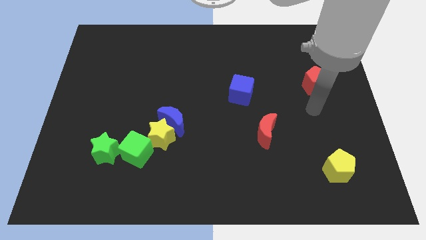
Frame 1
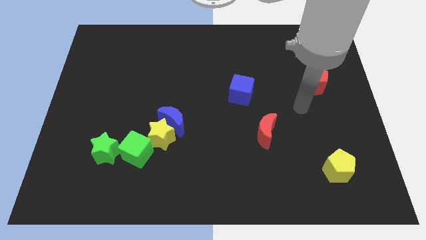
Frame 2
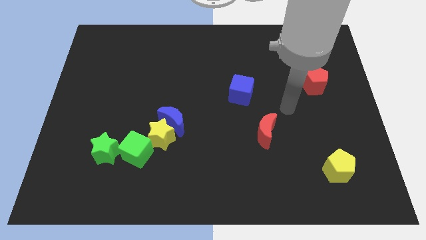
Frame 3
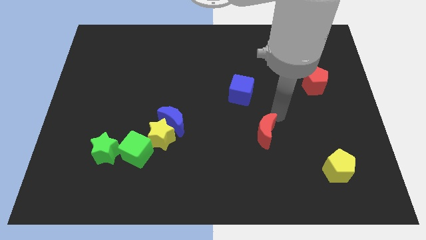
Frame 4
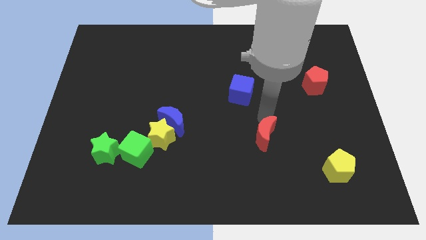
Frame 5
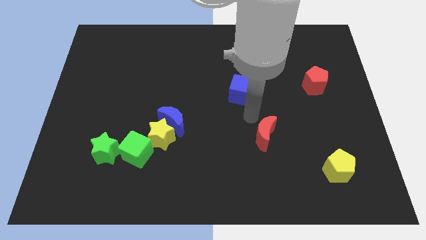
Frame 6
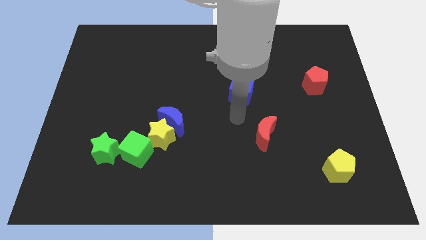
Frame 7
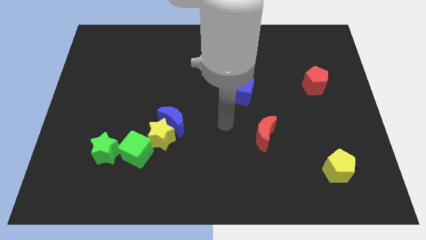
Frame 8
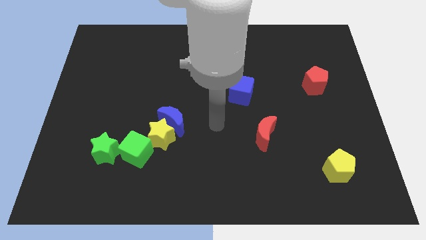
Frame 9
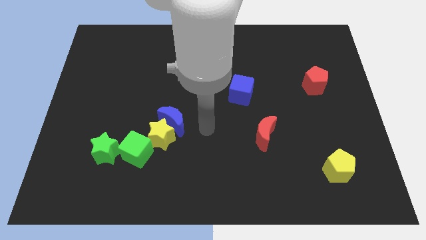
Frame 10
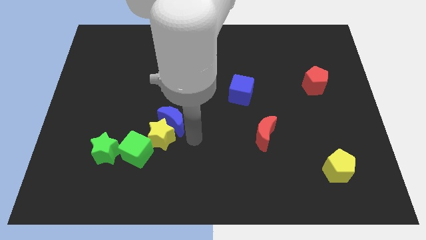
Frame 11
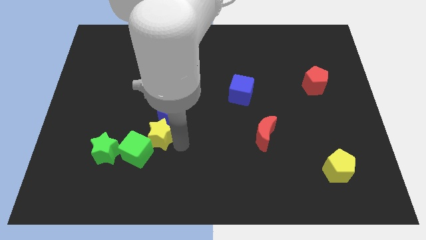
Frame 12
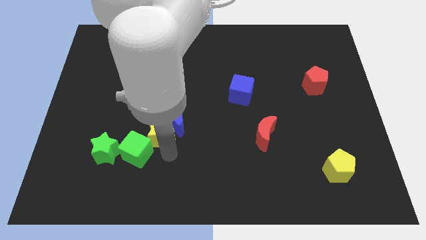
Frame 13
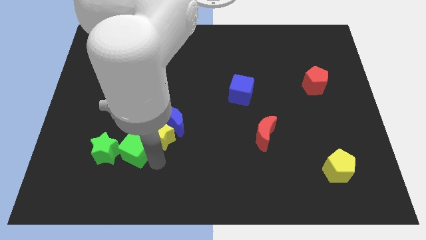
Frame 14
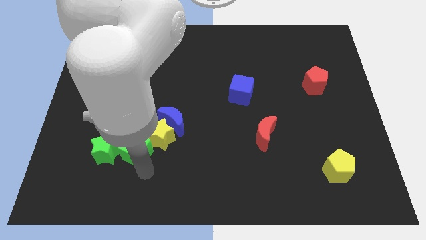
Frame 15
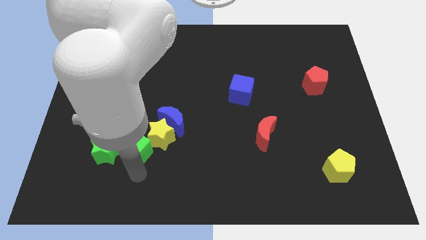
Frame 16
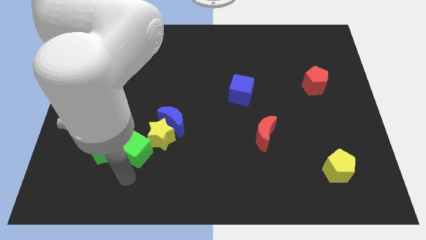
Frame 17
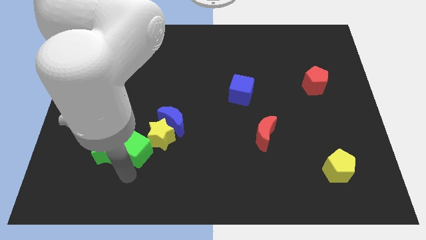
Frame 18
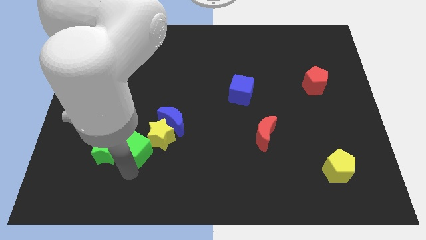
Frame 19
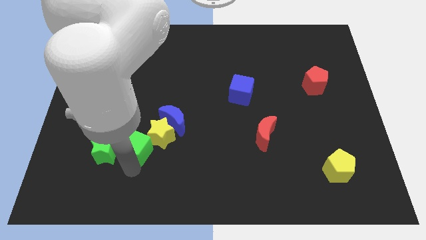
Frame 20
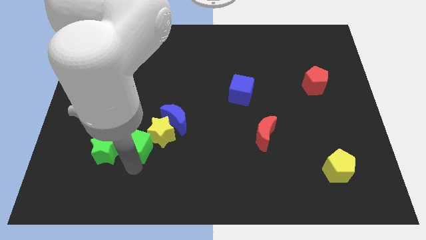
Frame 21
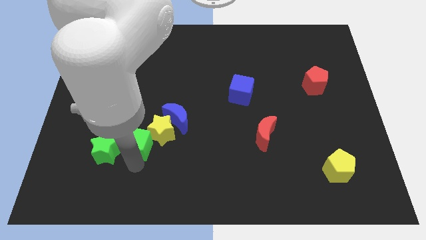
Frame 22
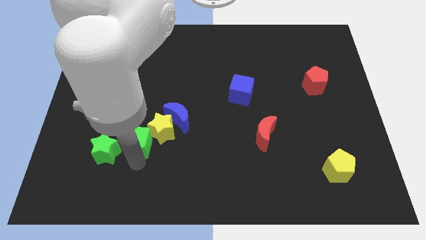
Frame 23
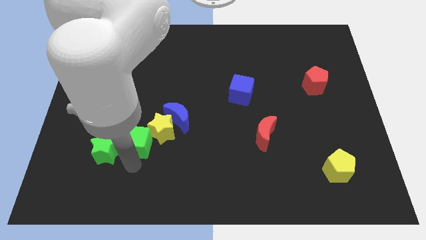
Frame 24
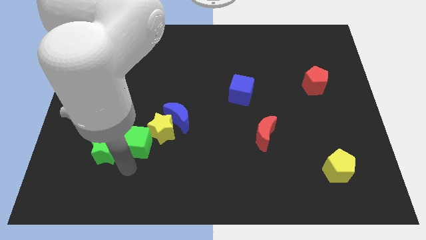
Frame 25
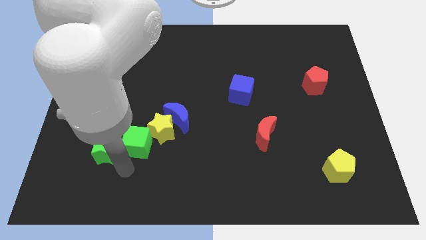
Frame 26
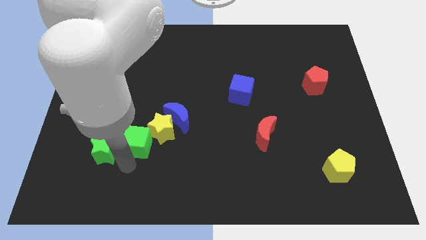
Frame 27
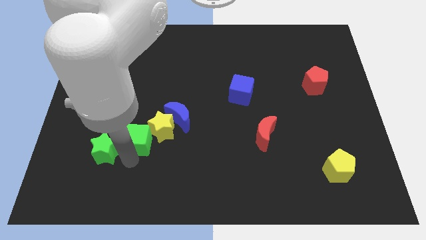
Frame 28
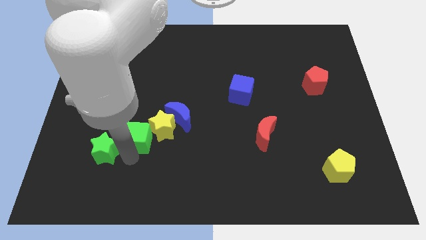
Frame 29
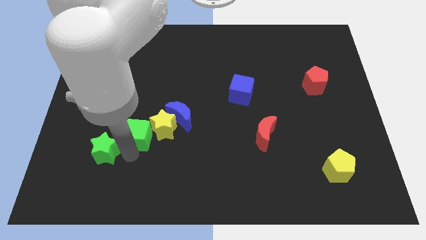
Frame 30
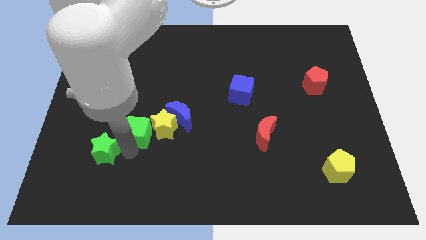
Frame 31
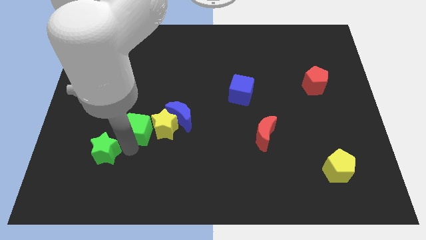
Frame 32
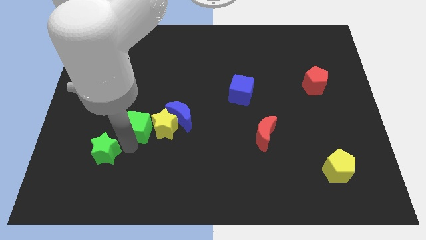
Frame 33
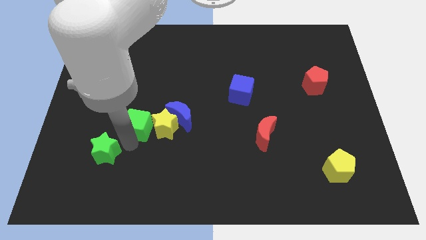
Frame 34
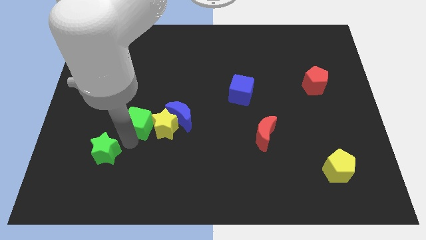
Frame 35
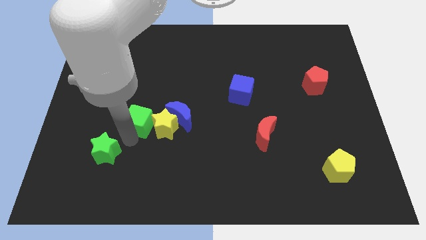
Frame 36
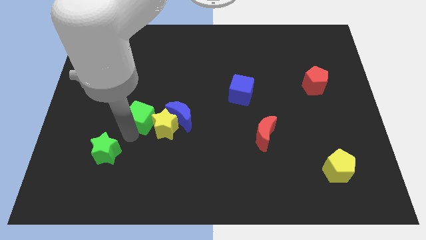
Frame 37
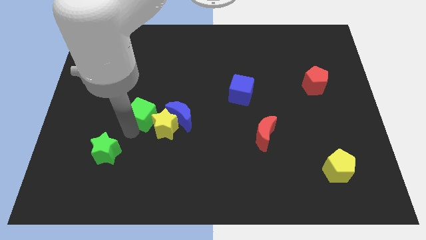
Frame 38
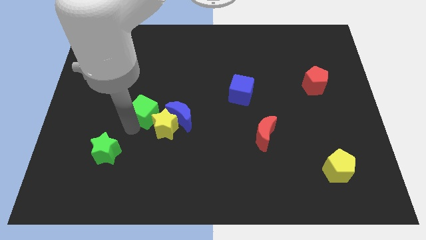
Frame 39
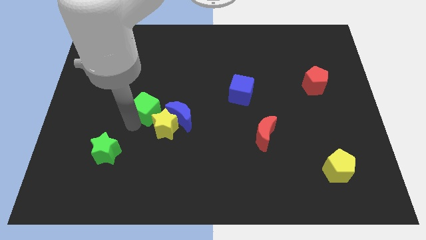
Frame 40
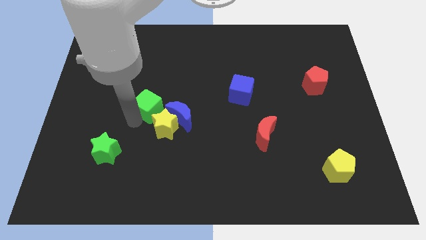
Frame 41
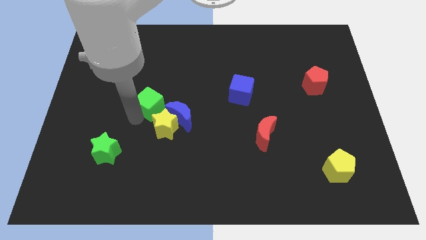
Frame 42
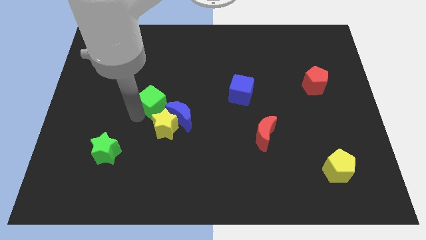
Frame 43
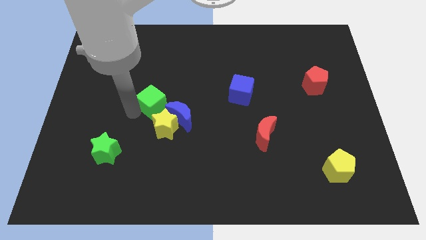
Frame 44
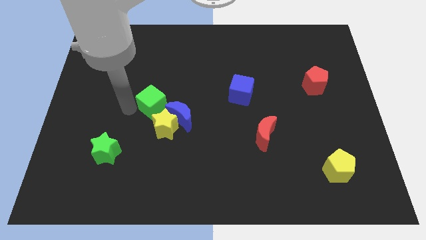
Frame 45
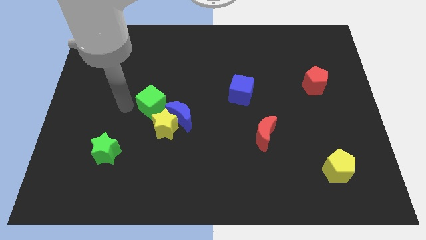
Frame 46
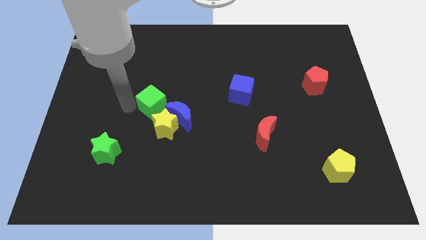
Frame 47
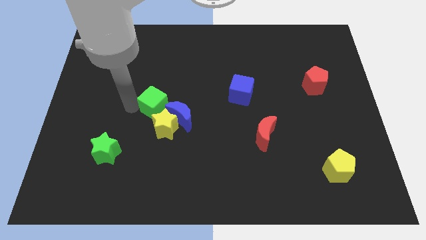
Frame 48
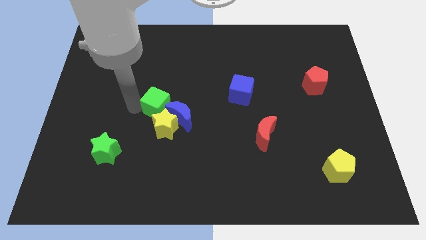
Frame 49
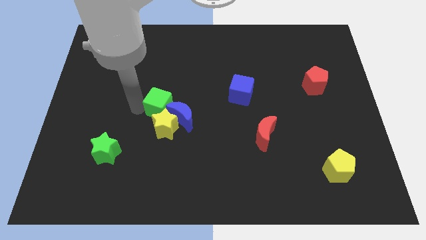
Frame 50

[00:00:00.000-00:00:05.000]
put the green cube to the center

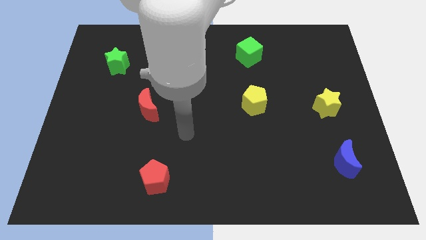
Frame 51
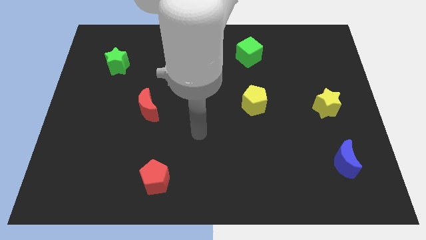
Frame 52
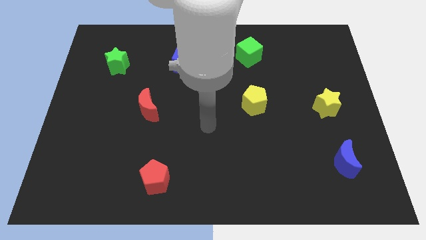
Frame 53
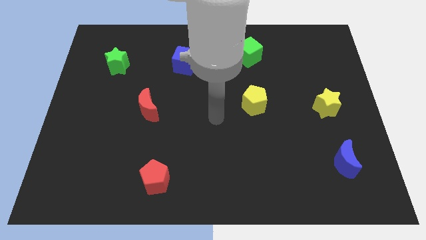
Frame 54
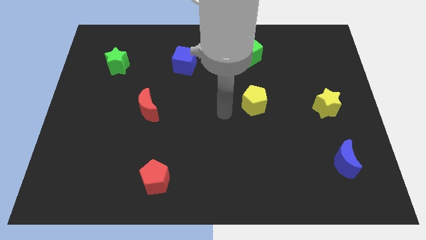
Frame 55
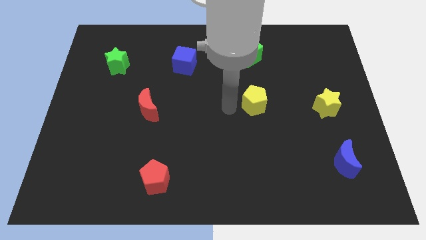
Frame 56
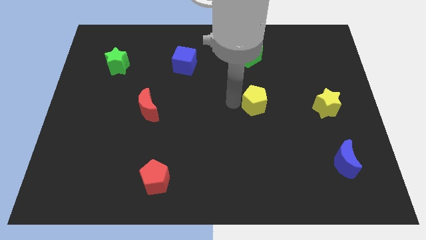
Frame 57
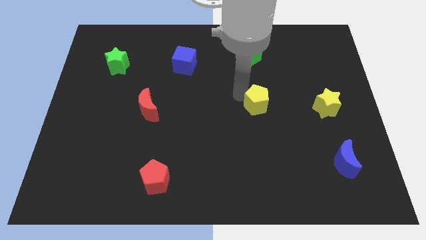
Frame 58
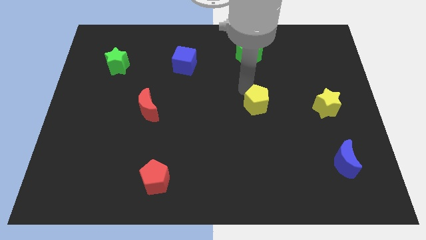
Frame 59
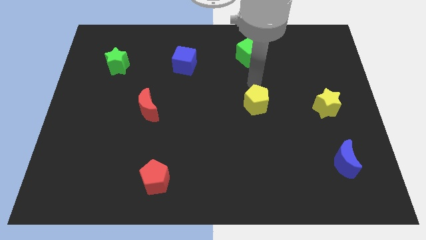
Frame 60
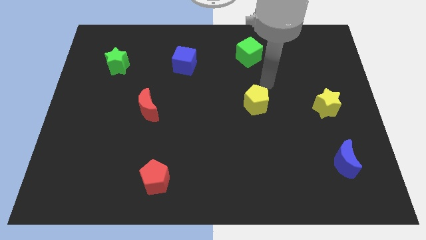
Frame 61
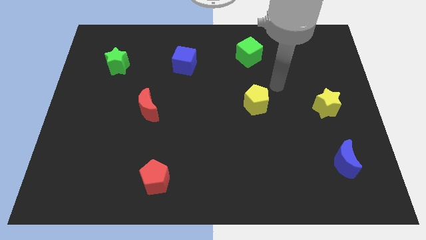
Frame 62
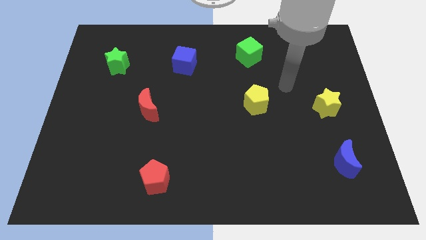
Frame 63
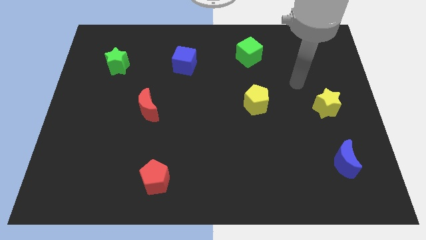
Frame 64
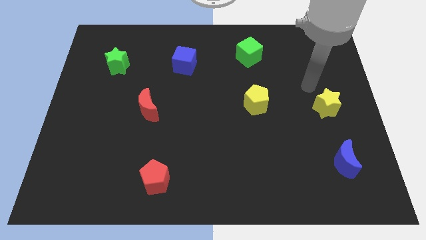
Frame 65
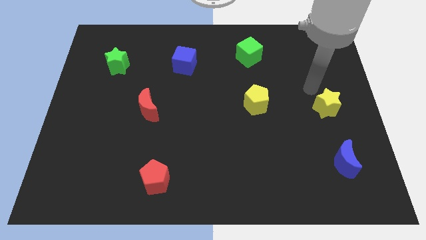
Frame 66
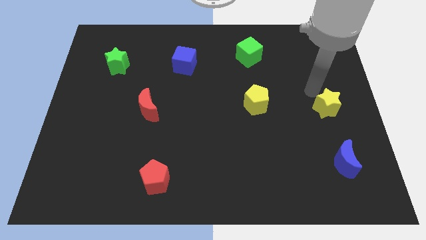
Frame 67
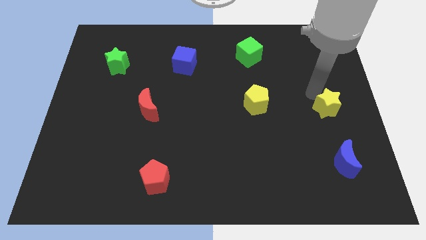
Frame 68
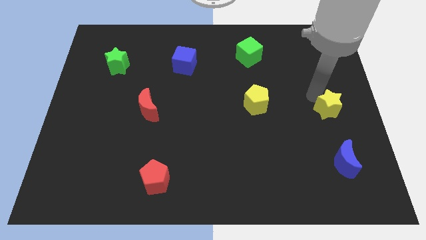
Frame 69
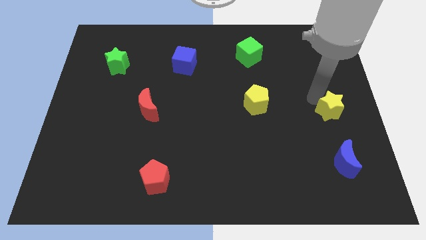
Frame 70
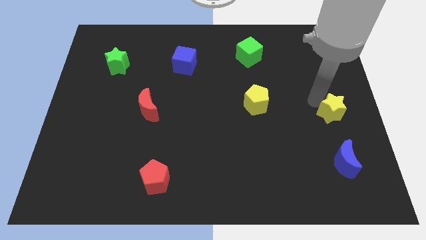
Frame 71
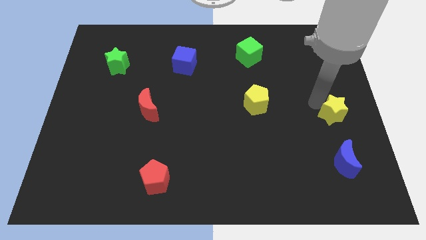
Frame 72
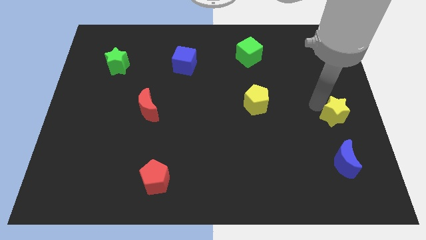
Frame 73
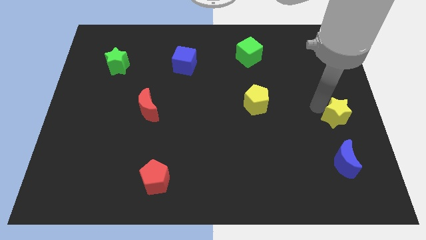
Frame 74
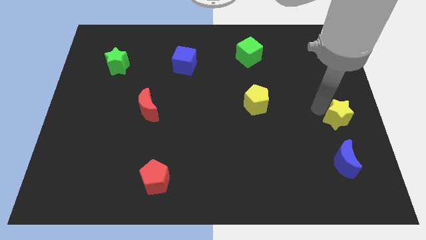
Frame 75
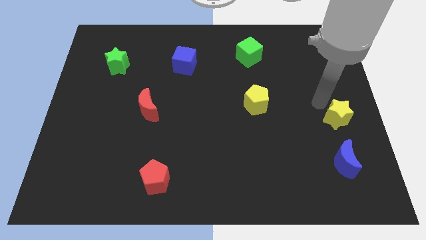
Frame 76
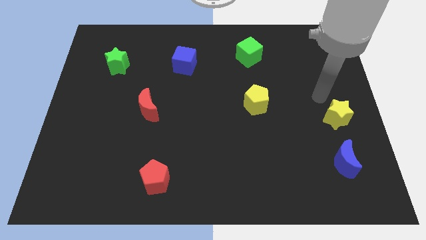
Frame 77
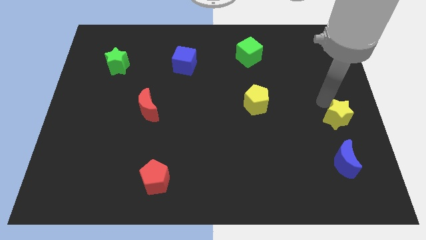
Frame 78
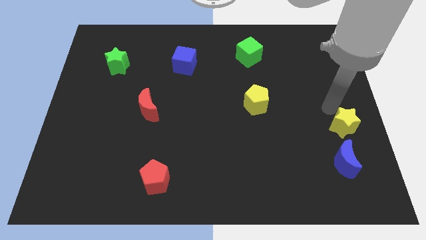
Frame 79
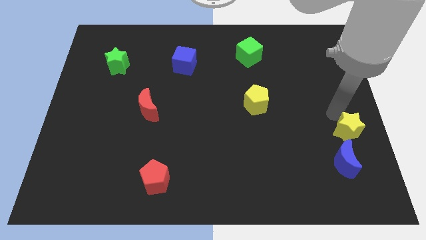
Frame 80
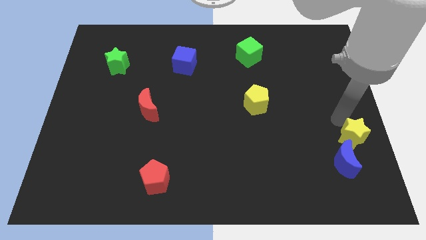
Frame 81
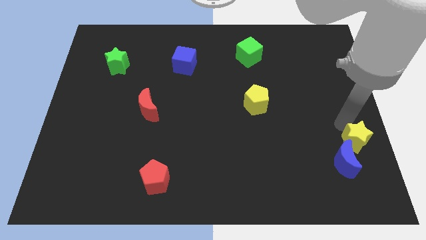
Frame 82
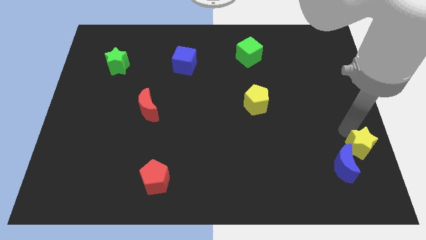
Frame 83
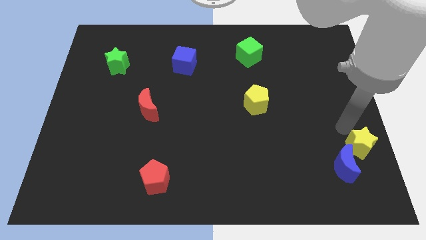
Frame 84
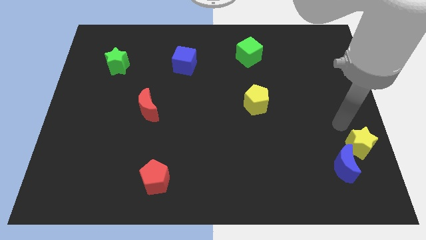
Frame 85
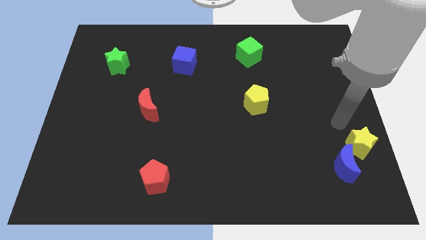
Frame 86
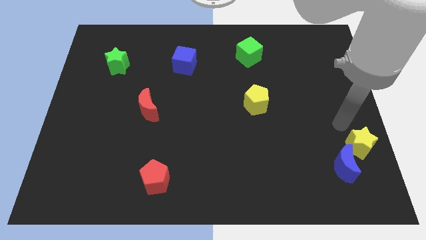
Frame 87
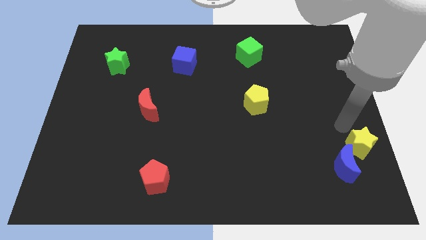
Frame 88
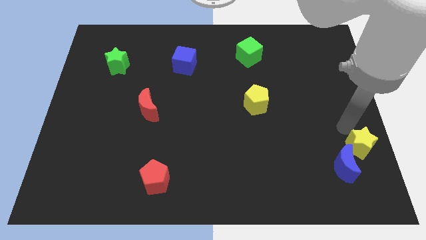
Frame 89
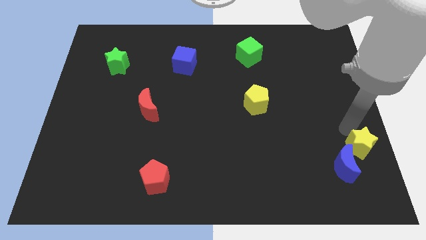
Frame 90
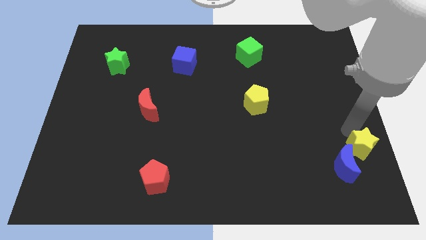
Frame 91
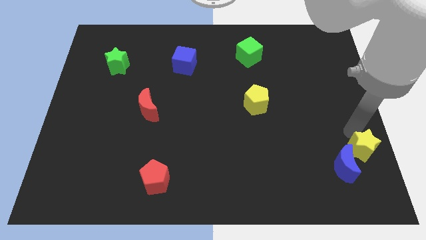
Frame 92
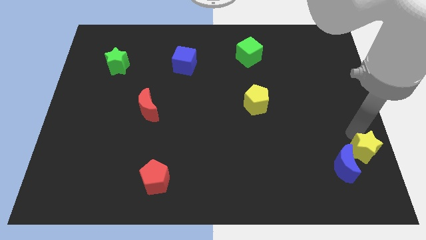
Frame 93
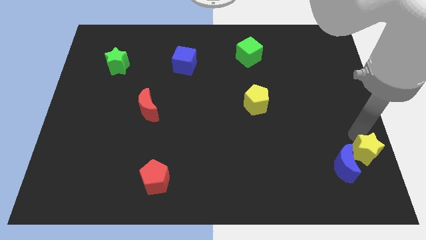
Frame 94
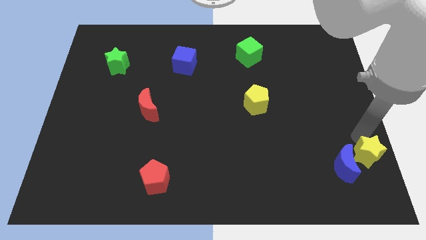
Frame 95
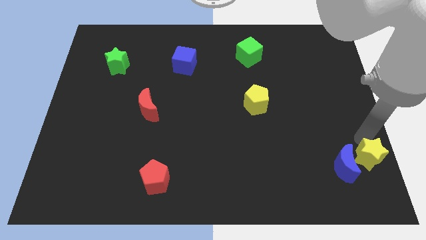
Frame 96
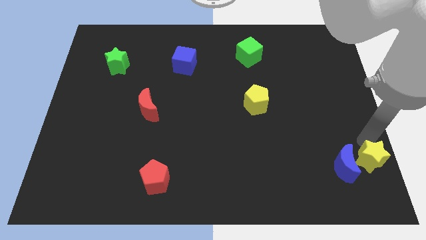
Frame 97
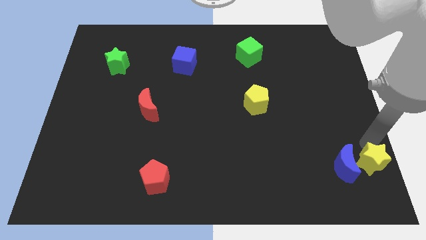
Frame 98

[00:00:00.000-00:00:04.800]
push the yellow star to the bottom right of the board
